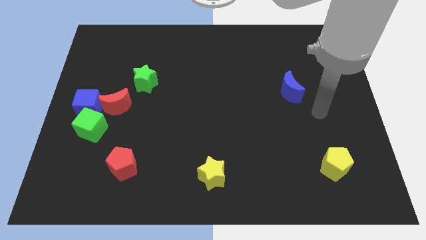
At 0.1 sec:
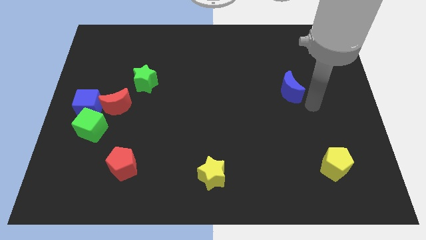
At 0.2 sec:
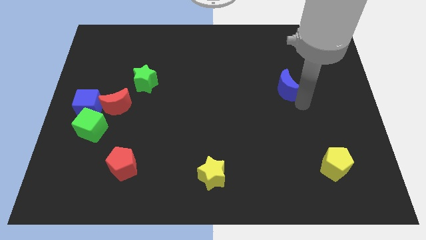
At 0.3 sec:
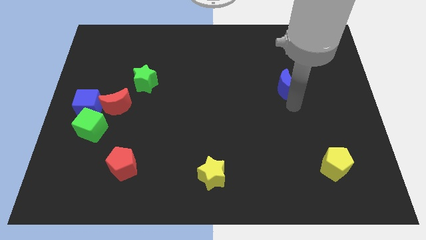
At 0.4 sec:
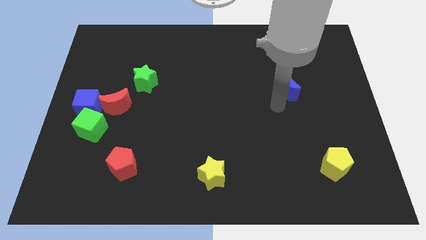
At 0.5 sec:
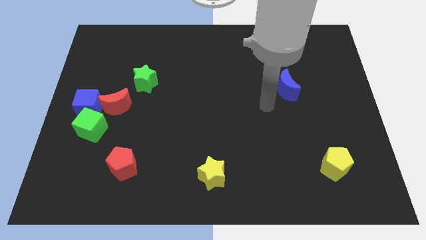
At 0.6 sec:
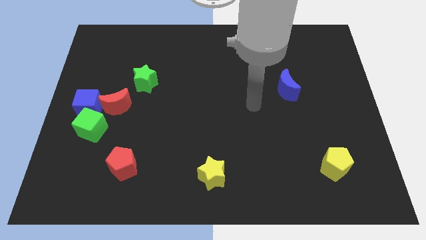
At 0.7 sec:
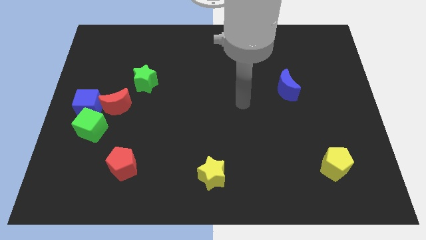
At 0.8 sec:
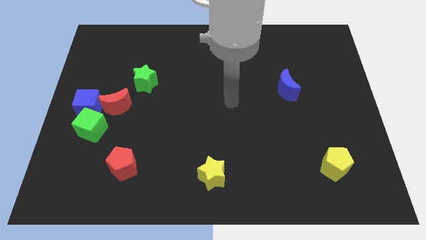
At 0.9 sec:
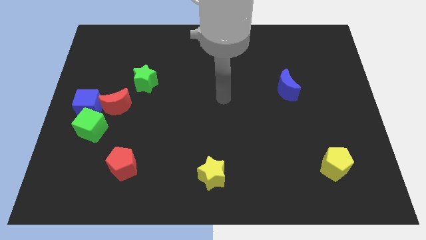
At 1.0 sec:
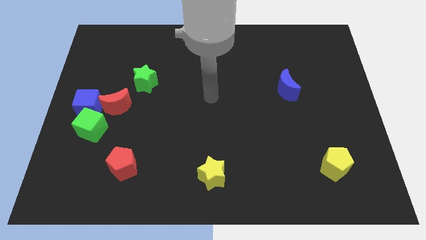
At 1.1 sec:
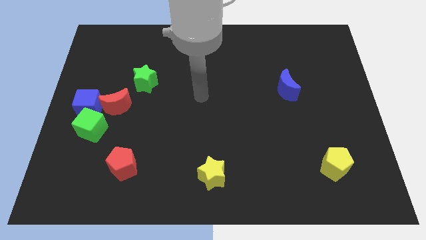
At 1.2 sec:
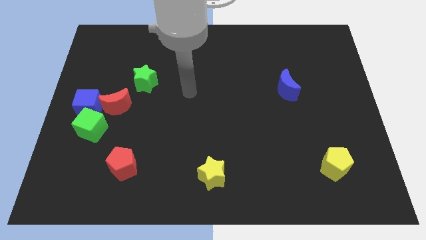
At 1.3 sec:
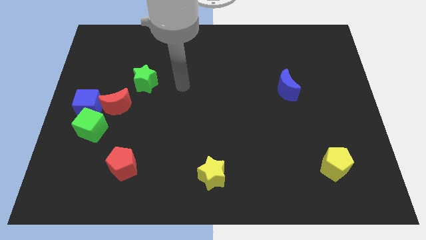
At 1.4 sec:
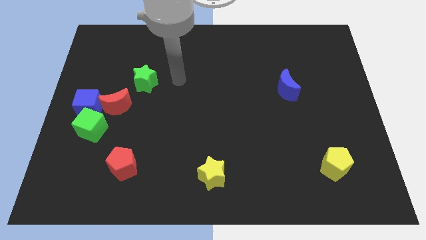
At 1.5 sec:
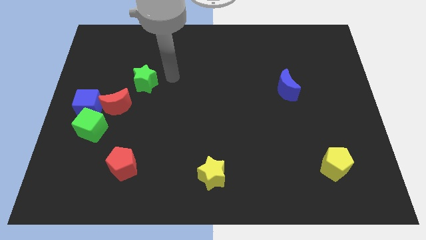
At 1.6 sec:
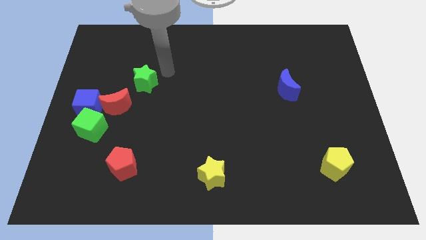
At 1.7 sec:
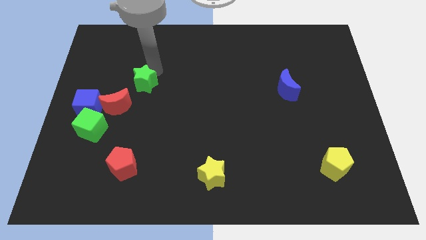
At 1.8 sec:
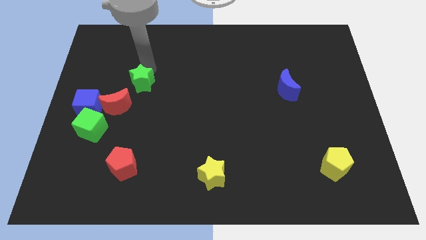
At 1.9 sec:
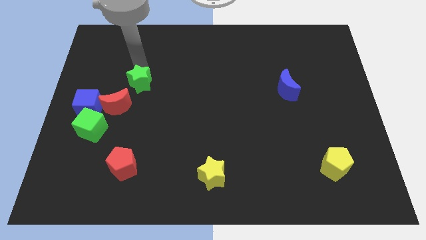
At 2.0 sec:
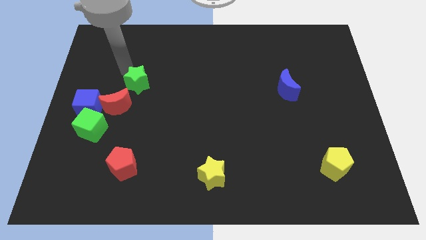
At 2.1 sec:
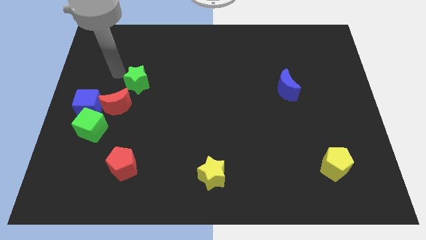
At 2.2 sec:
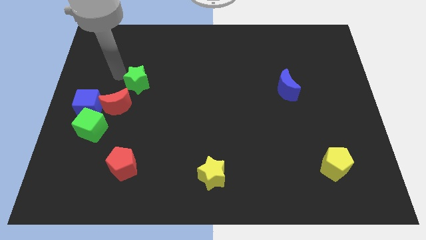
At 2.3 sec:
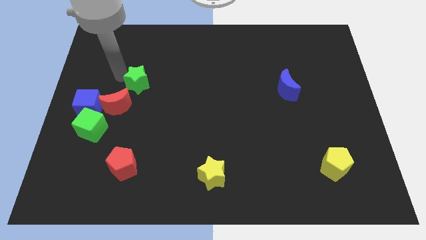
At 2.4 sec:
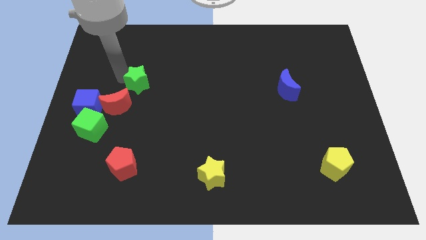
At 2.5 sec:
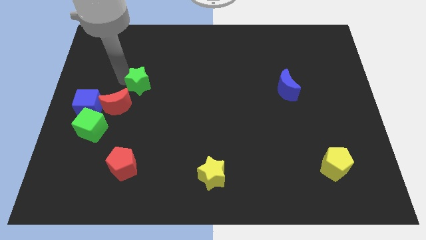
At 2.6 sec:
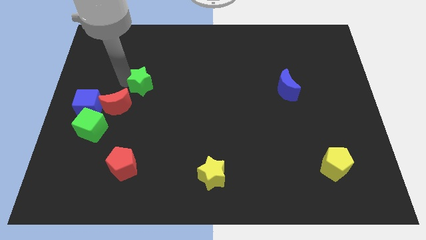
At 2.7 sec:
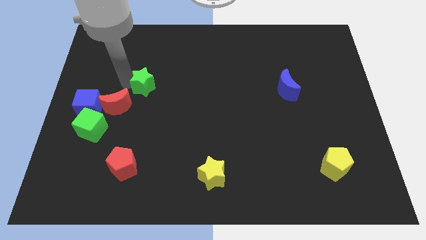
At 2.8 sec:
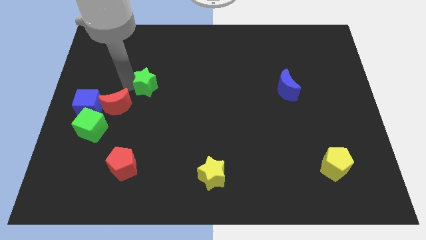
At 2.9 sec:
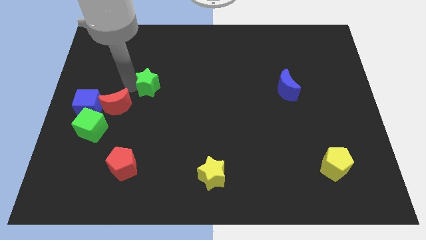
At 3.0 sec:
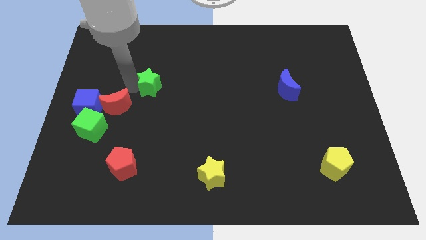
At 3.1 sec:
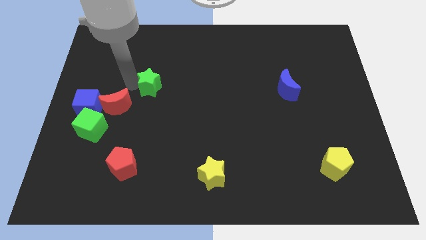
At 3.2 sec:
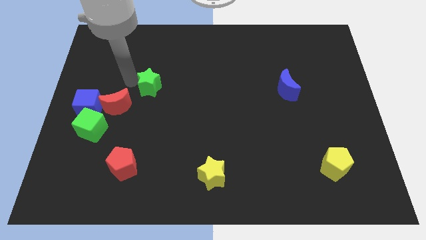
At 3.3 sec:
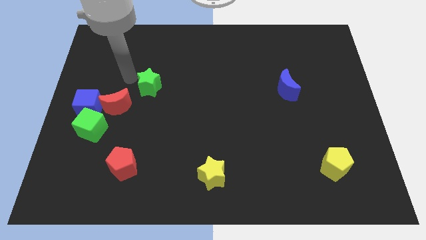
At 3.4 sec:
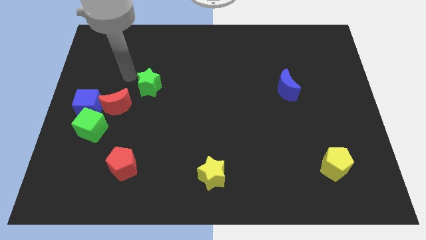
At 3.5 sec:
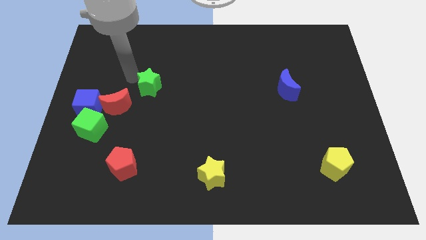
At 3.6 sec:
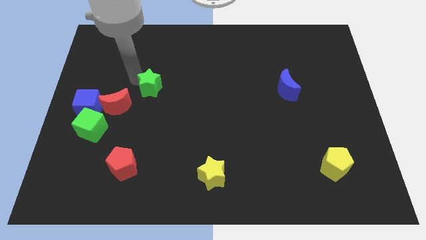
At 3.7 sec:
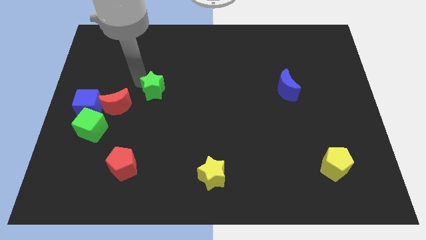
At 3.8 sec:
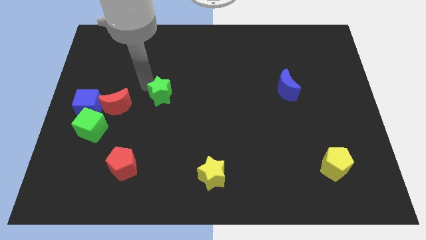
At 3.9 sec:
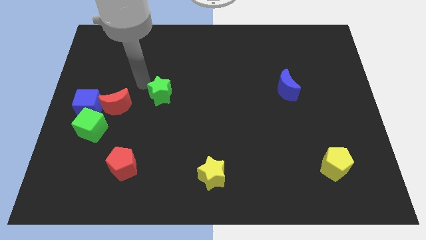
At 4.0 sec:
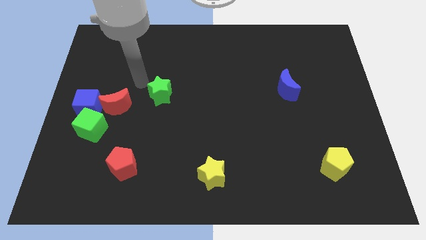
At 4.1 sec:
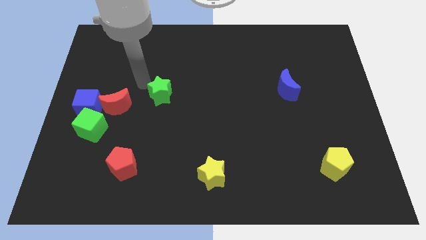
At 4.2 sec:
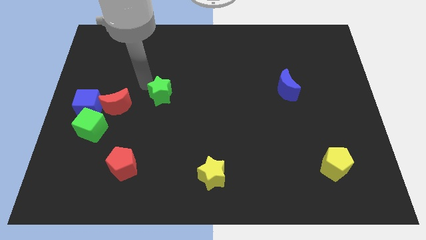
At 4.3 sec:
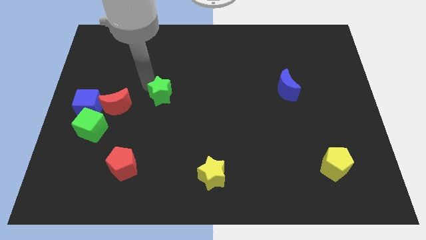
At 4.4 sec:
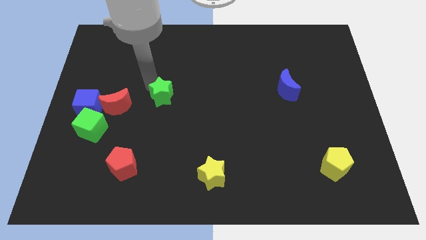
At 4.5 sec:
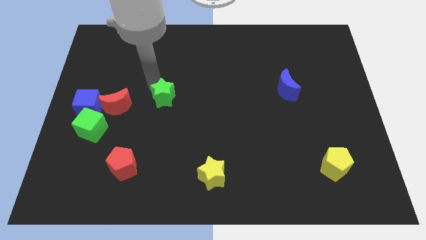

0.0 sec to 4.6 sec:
move the green star slightly diagonally downwards and to the right

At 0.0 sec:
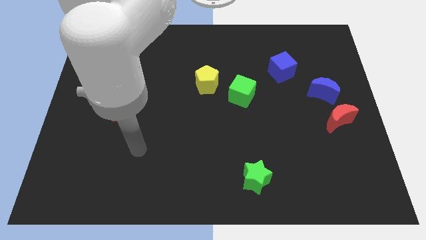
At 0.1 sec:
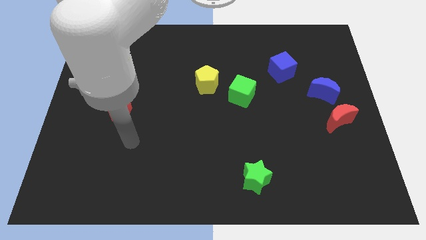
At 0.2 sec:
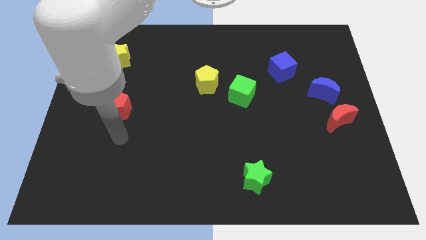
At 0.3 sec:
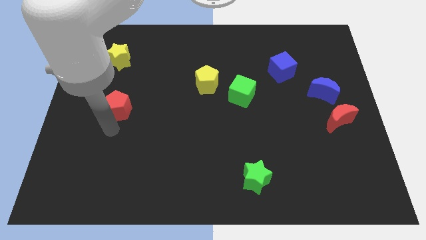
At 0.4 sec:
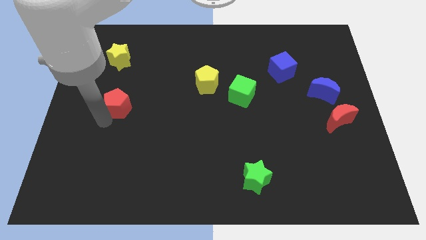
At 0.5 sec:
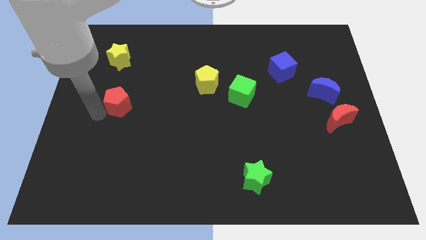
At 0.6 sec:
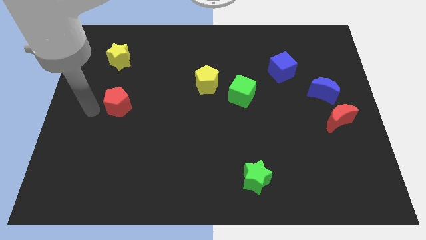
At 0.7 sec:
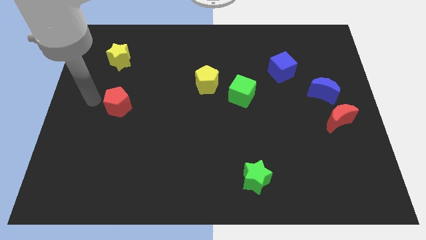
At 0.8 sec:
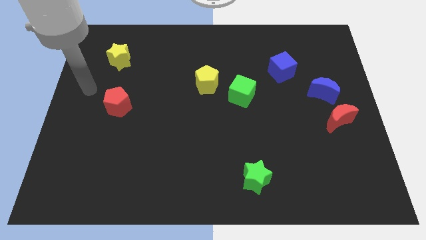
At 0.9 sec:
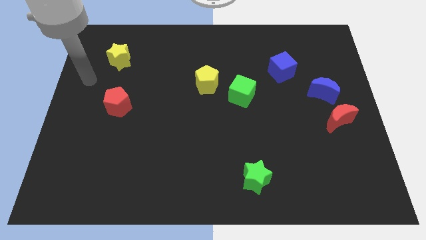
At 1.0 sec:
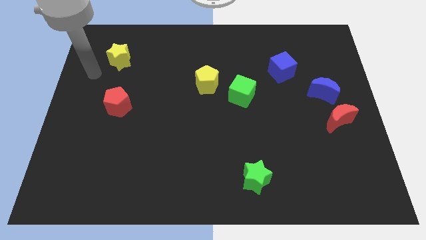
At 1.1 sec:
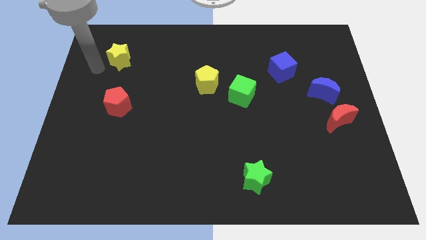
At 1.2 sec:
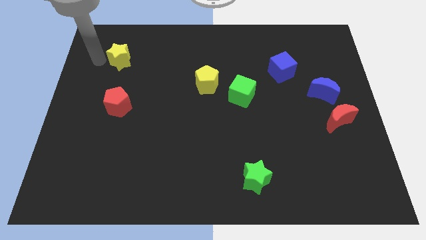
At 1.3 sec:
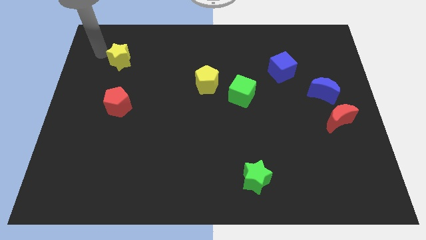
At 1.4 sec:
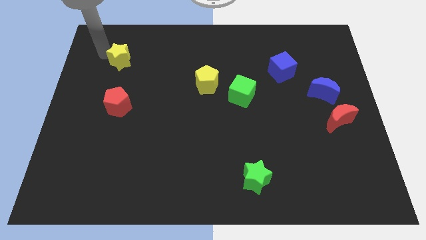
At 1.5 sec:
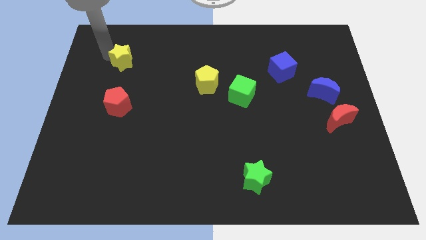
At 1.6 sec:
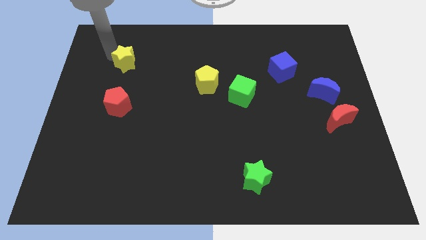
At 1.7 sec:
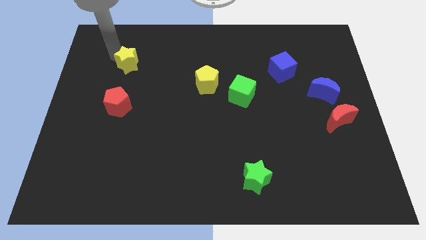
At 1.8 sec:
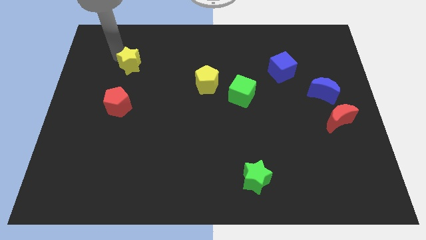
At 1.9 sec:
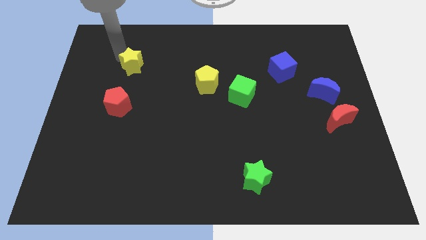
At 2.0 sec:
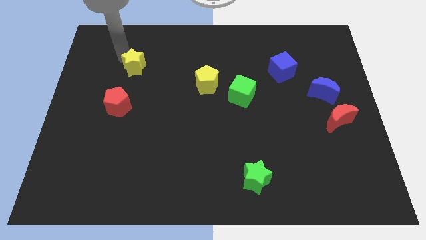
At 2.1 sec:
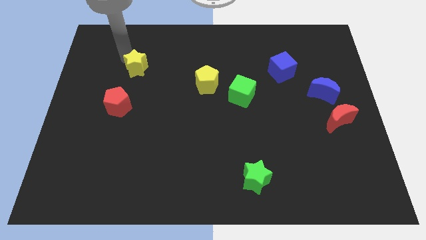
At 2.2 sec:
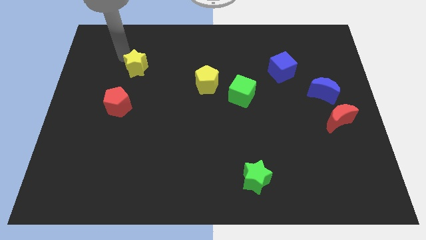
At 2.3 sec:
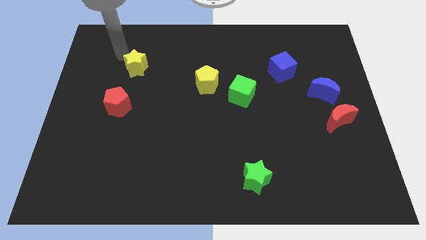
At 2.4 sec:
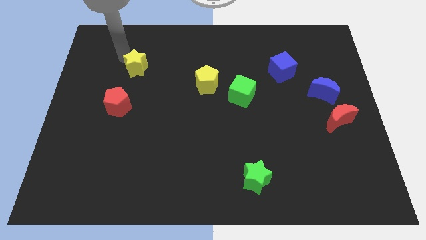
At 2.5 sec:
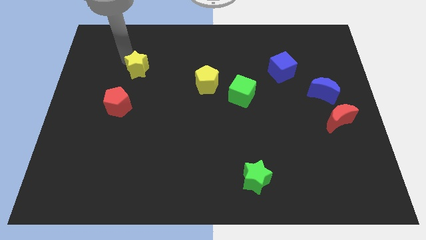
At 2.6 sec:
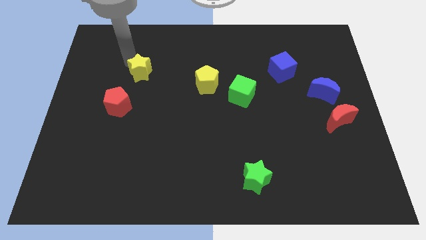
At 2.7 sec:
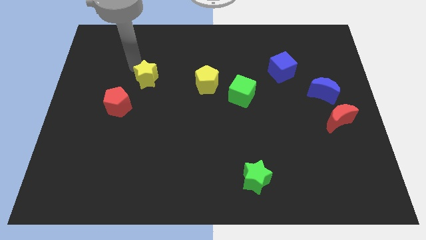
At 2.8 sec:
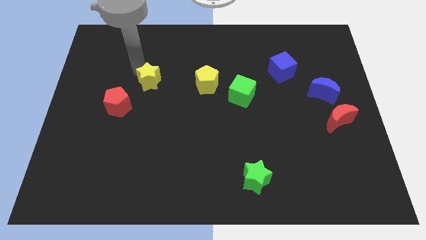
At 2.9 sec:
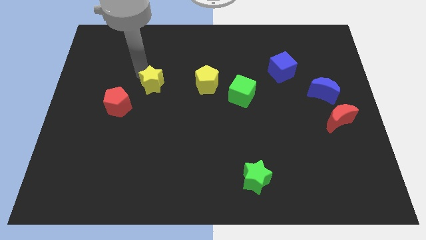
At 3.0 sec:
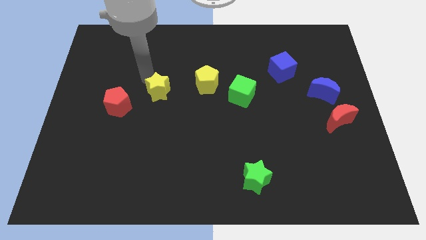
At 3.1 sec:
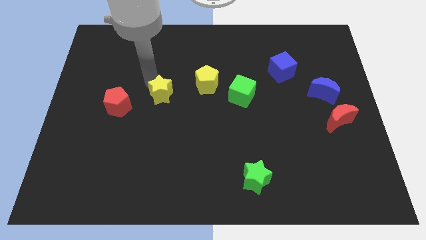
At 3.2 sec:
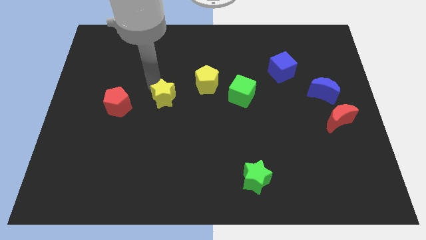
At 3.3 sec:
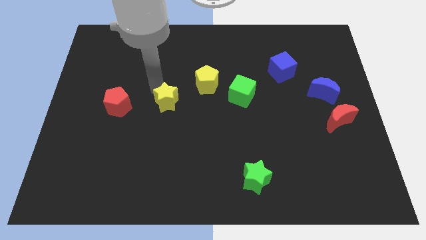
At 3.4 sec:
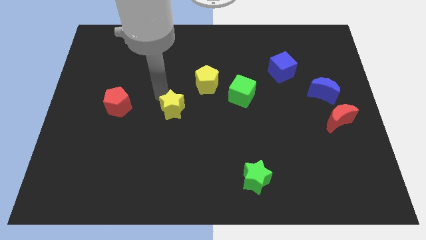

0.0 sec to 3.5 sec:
push the yellow star diagonally down and to the right

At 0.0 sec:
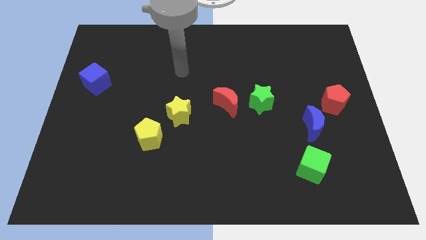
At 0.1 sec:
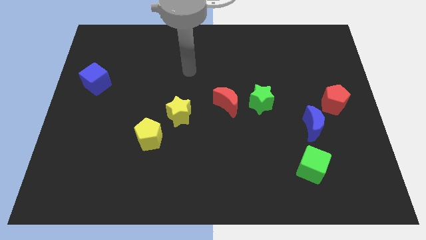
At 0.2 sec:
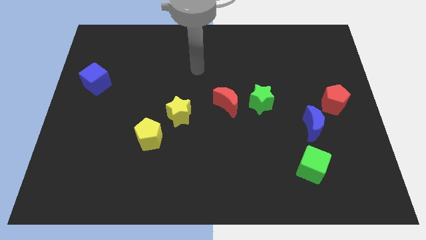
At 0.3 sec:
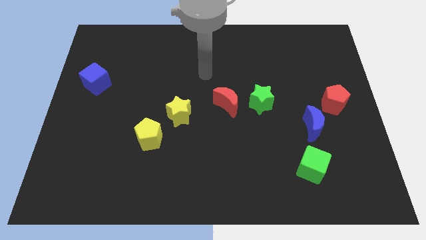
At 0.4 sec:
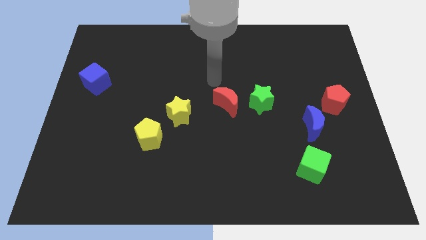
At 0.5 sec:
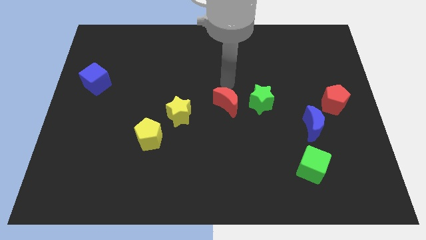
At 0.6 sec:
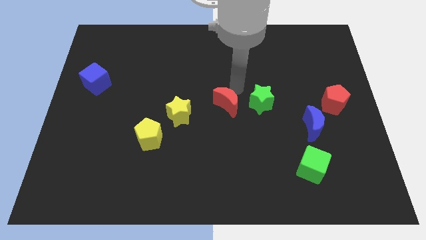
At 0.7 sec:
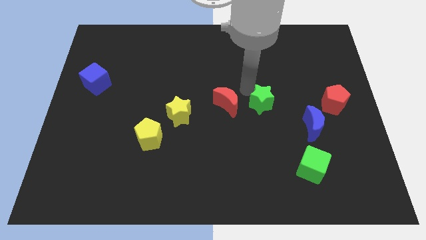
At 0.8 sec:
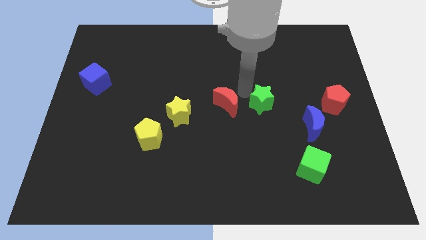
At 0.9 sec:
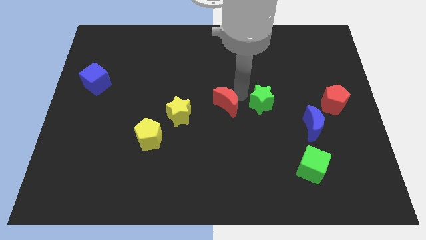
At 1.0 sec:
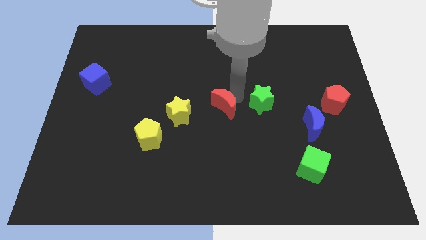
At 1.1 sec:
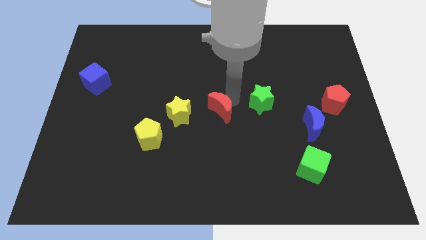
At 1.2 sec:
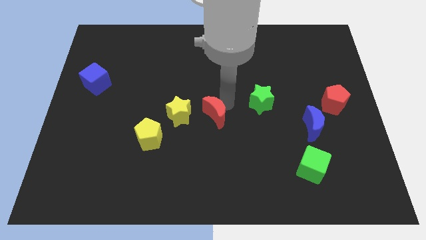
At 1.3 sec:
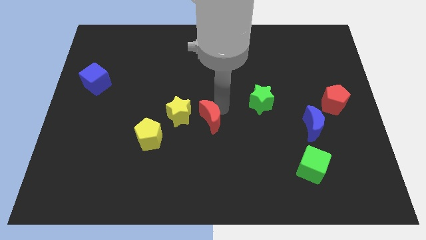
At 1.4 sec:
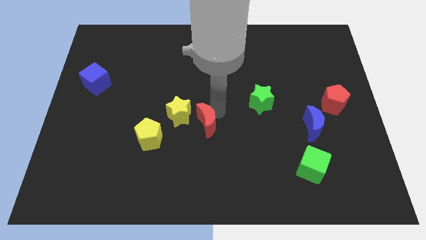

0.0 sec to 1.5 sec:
slightly move the red moon down and to the left diagonally
